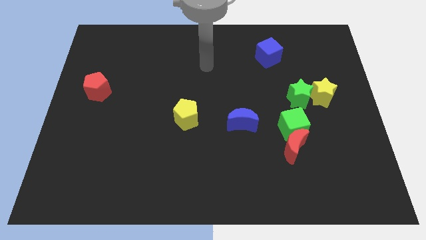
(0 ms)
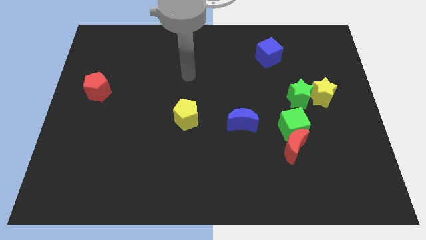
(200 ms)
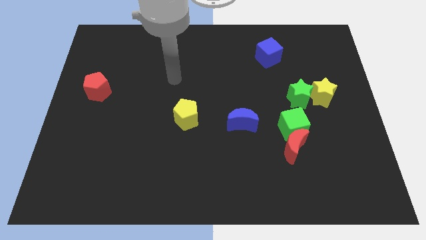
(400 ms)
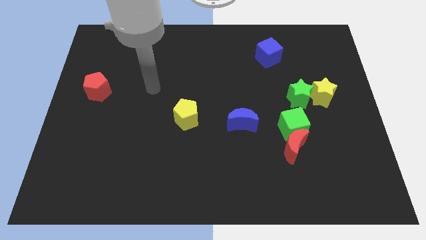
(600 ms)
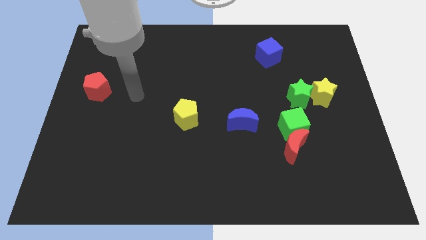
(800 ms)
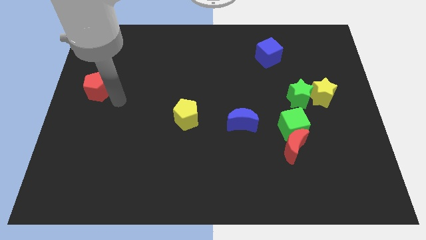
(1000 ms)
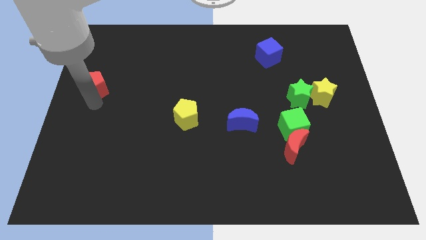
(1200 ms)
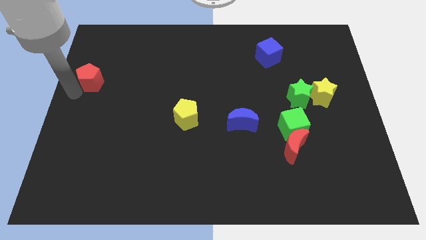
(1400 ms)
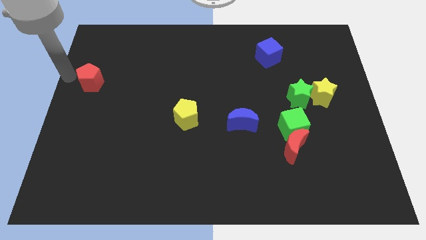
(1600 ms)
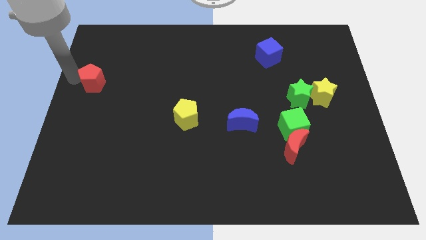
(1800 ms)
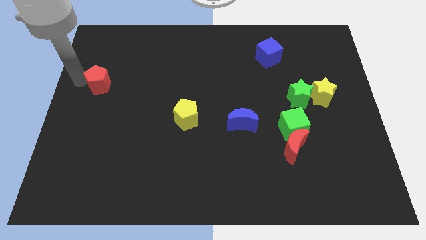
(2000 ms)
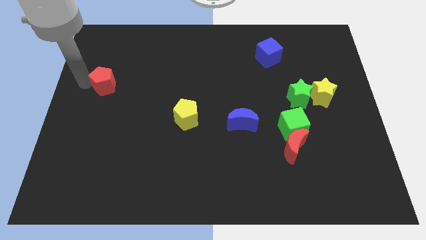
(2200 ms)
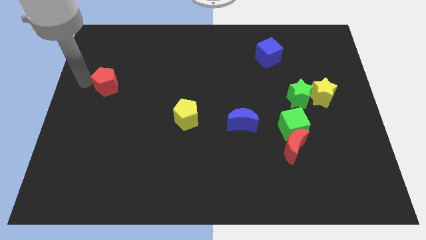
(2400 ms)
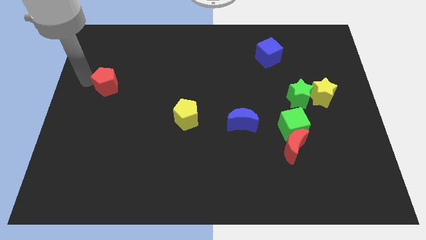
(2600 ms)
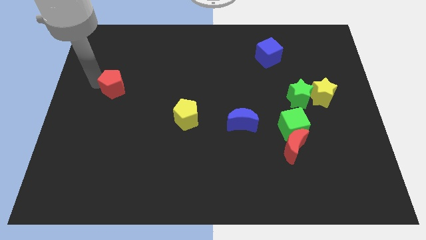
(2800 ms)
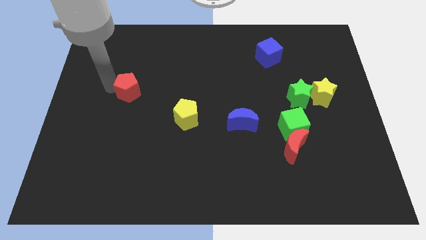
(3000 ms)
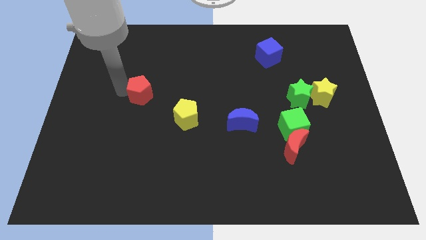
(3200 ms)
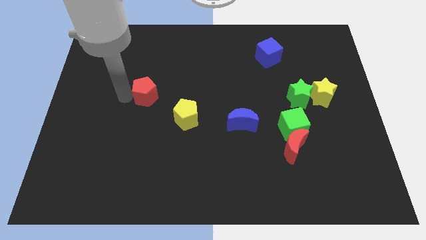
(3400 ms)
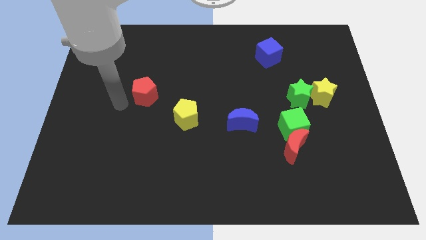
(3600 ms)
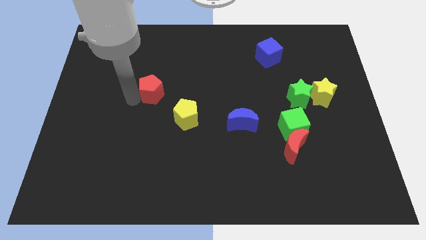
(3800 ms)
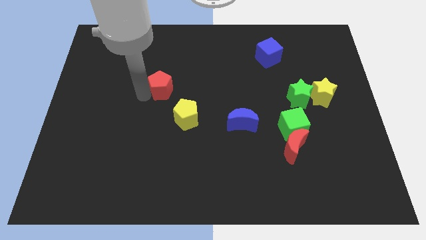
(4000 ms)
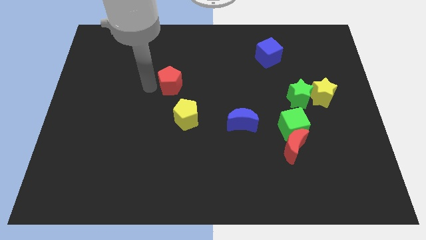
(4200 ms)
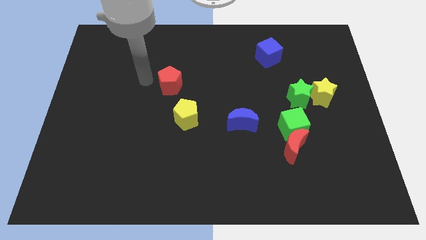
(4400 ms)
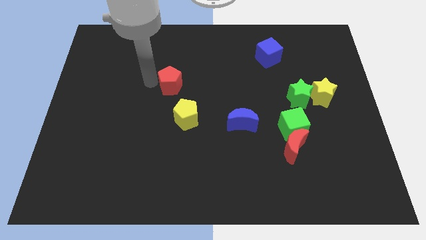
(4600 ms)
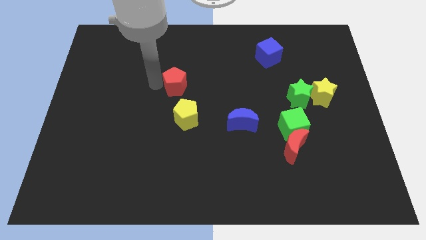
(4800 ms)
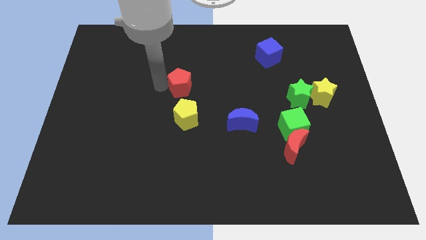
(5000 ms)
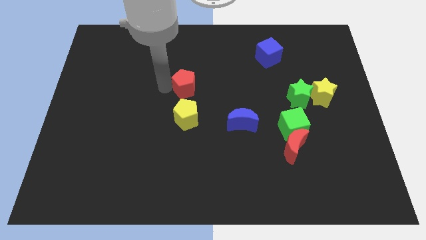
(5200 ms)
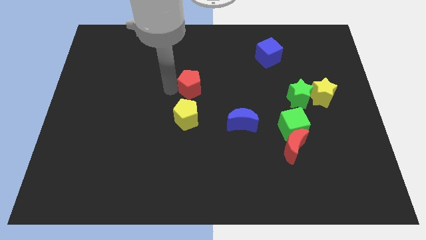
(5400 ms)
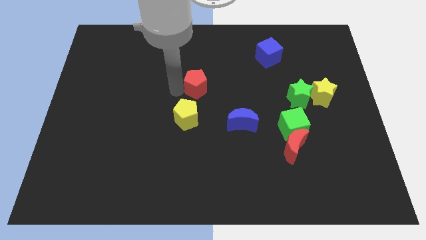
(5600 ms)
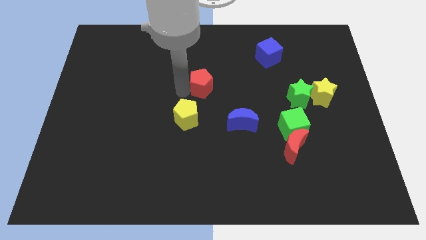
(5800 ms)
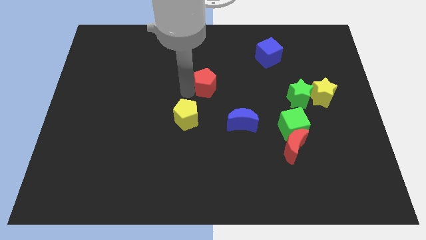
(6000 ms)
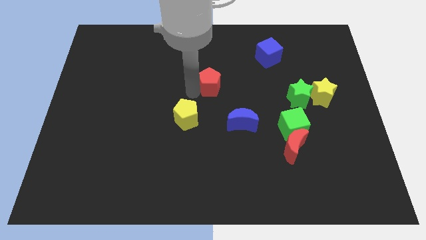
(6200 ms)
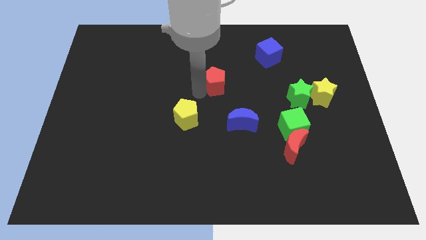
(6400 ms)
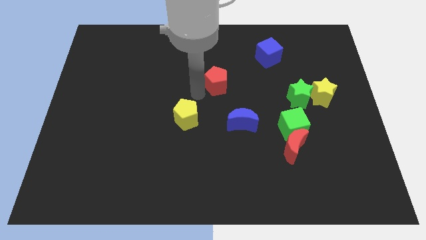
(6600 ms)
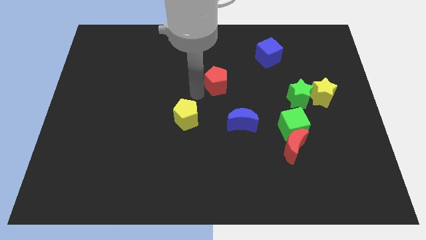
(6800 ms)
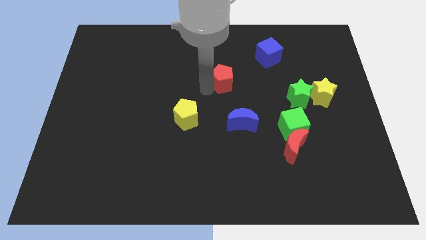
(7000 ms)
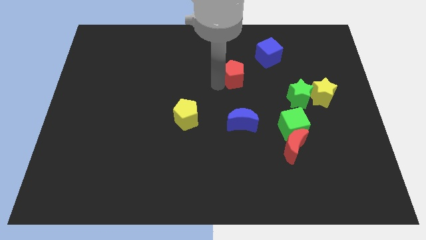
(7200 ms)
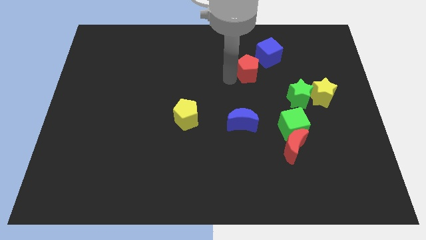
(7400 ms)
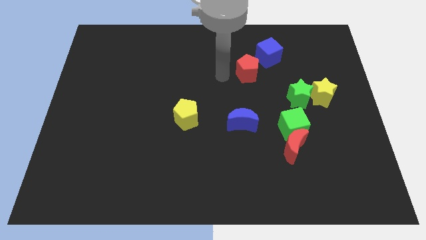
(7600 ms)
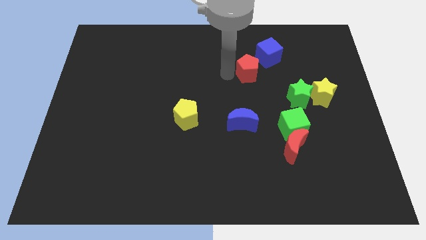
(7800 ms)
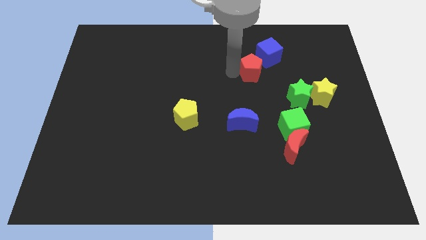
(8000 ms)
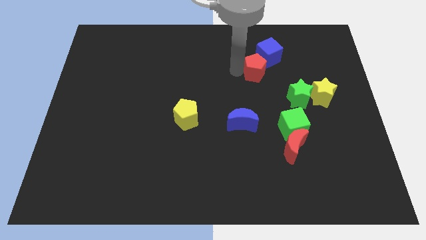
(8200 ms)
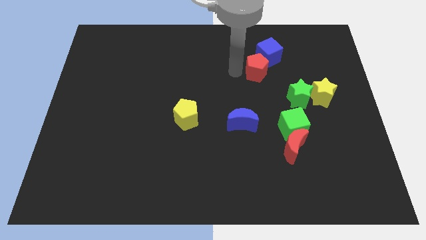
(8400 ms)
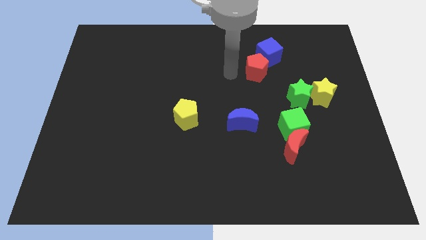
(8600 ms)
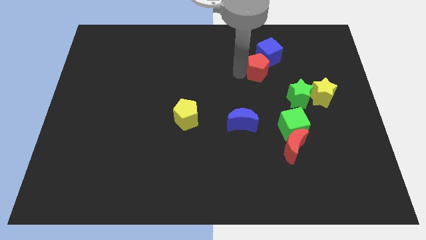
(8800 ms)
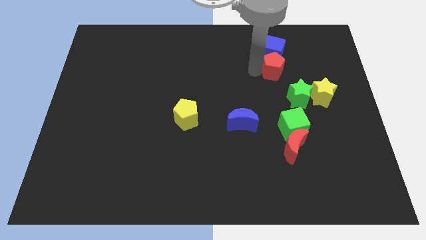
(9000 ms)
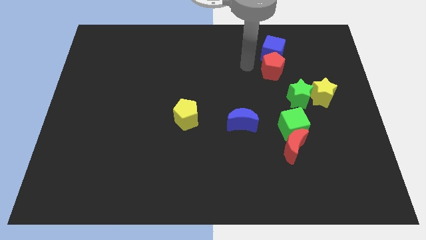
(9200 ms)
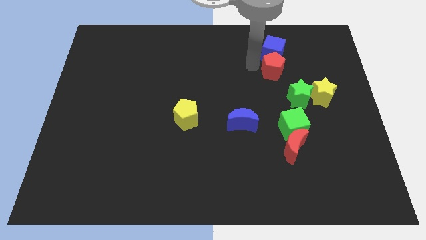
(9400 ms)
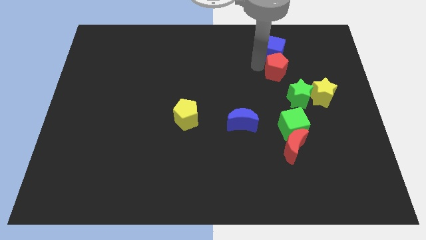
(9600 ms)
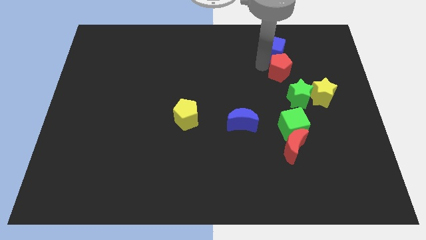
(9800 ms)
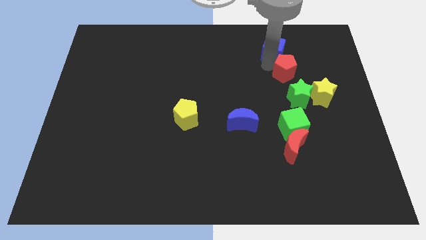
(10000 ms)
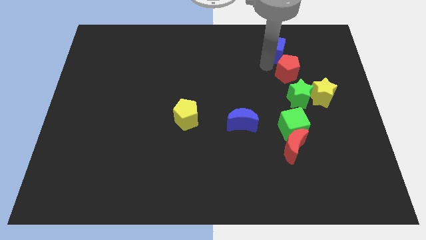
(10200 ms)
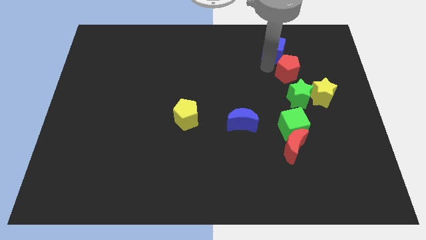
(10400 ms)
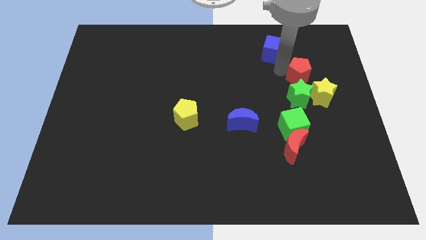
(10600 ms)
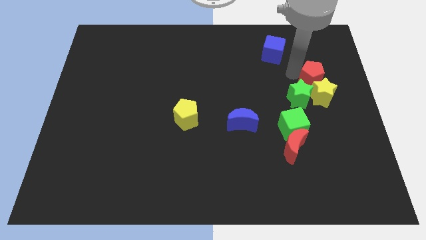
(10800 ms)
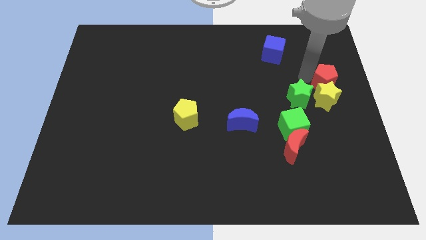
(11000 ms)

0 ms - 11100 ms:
put the red pentagon to the right side

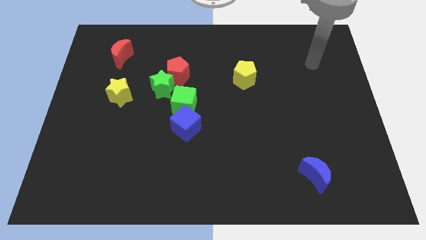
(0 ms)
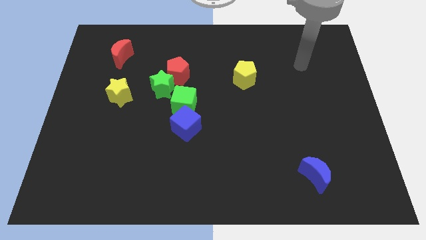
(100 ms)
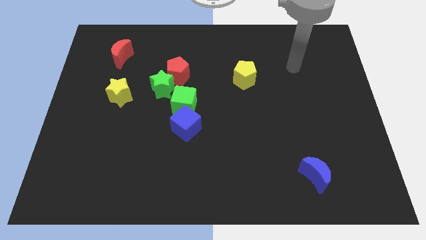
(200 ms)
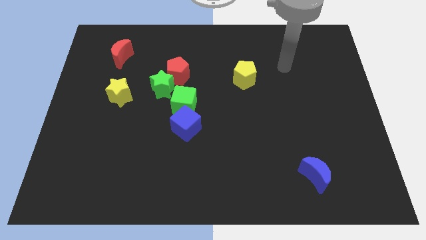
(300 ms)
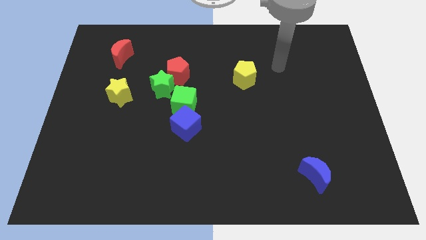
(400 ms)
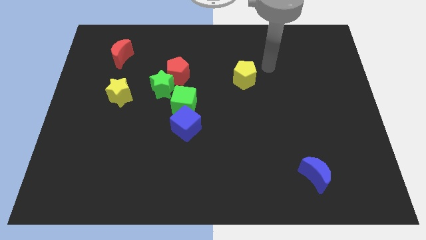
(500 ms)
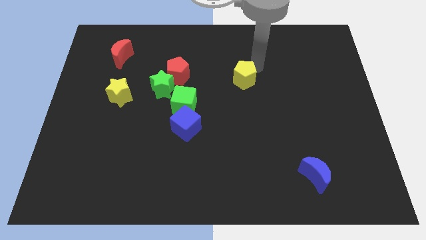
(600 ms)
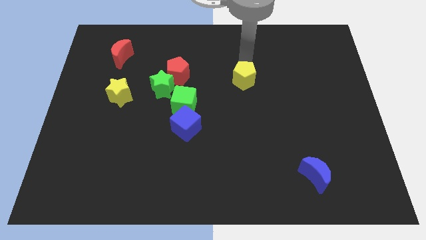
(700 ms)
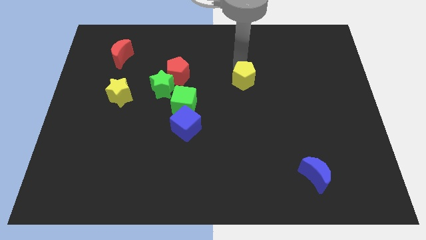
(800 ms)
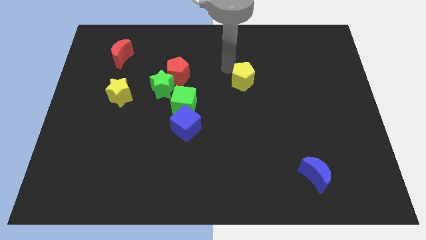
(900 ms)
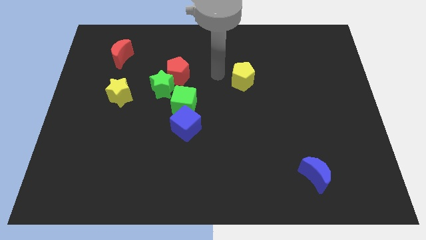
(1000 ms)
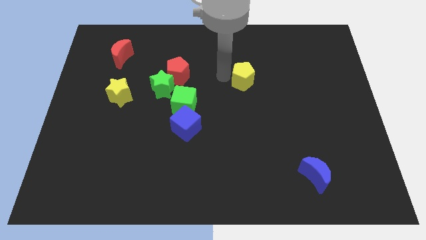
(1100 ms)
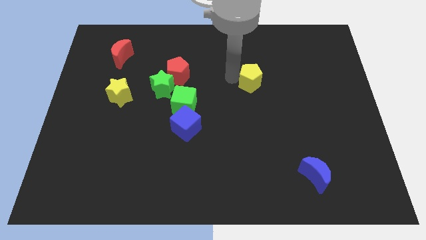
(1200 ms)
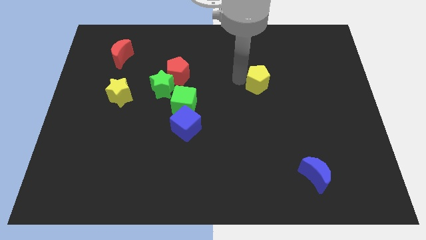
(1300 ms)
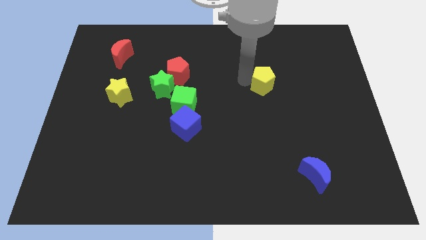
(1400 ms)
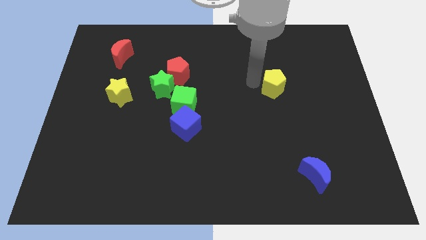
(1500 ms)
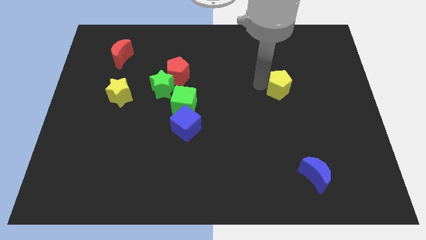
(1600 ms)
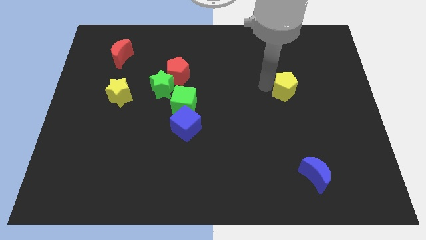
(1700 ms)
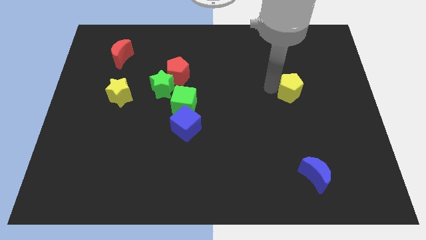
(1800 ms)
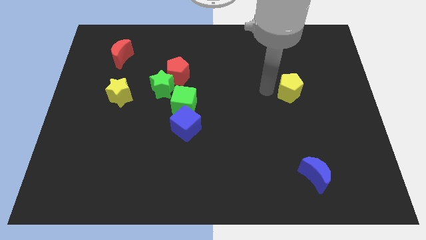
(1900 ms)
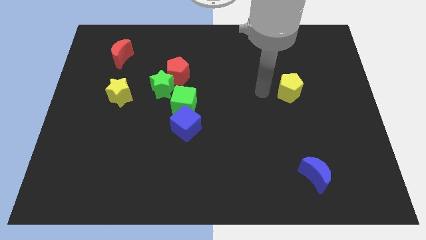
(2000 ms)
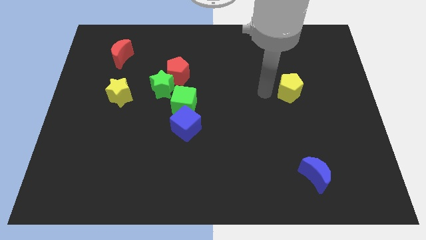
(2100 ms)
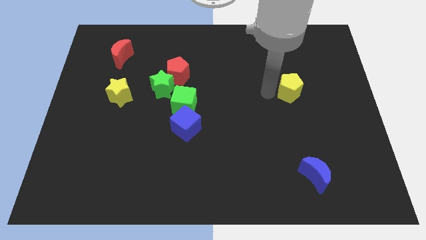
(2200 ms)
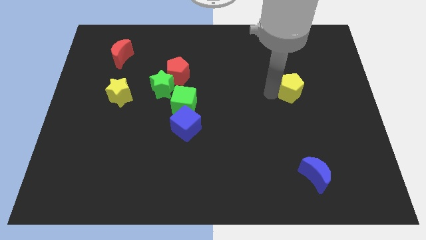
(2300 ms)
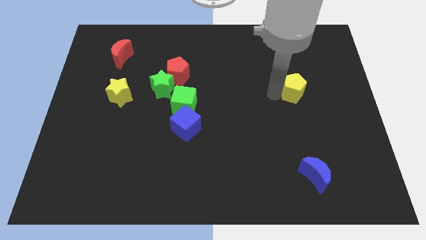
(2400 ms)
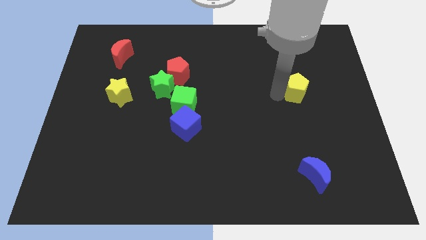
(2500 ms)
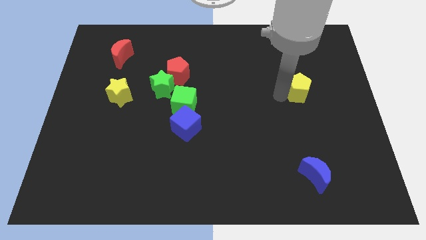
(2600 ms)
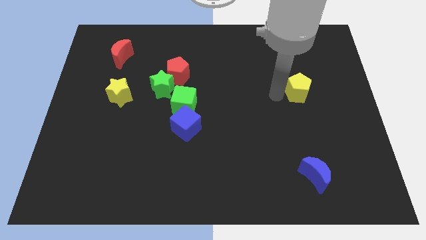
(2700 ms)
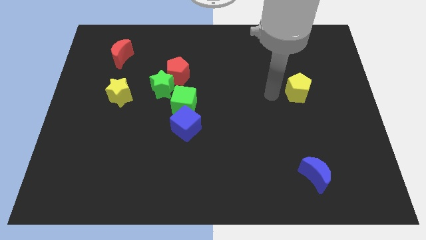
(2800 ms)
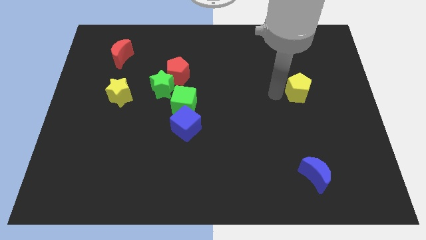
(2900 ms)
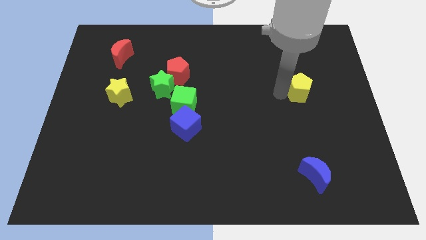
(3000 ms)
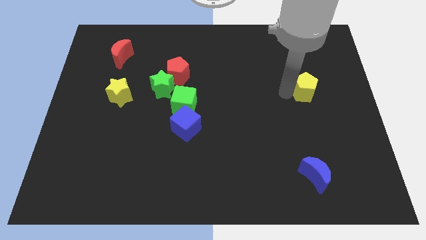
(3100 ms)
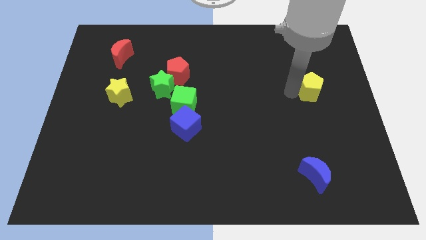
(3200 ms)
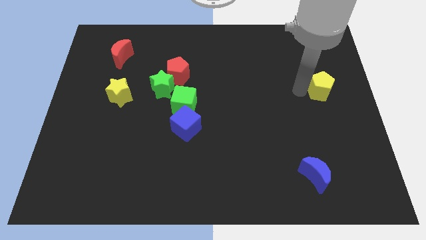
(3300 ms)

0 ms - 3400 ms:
put the yellow pentagon to the right side of the board
